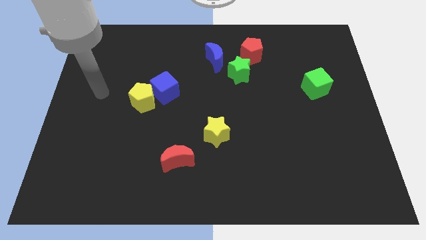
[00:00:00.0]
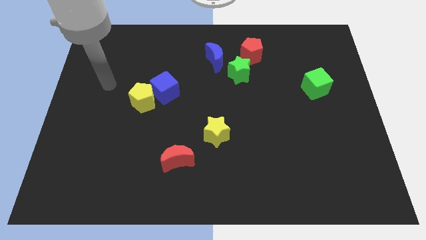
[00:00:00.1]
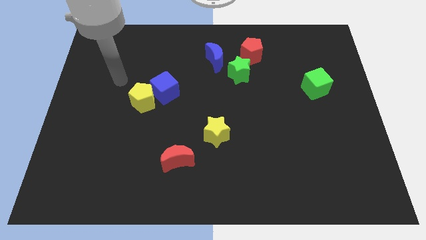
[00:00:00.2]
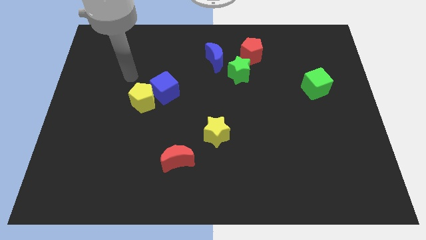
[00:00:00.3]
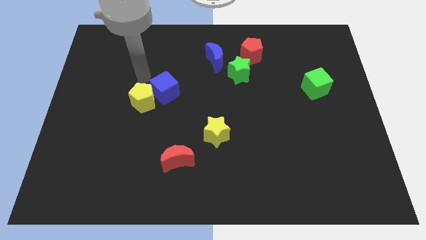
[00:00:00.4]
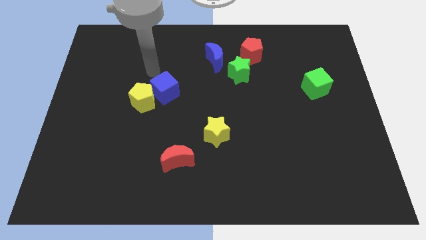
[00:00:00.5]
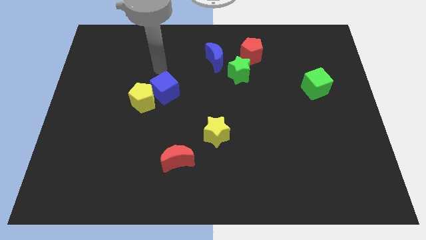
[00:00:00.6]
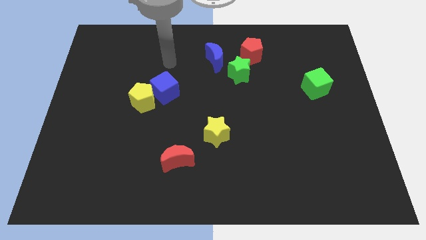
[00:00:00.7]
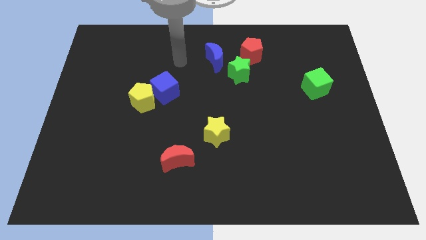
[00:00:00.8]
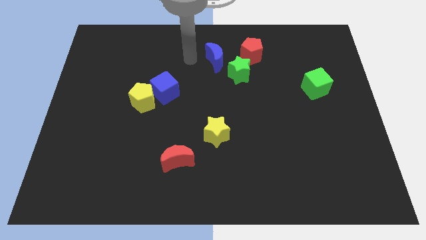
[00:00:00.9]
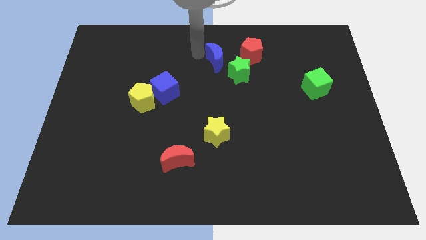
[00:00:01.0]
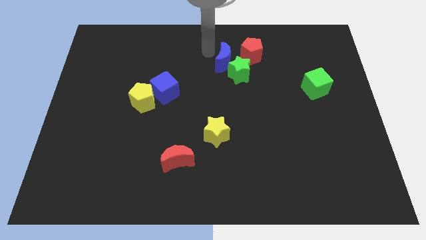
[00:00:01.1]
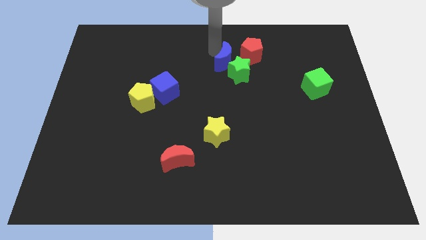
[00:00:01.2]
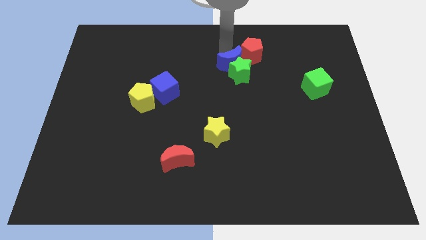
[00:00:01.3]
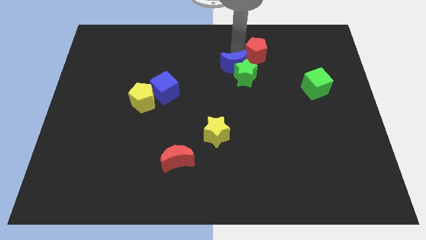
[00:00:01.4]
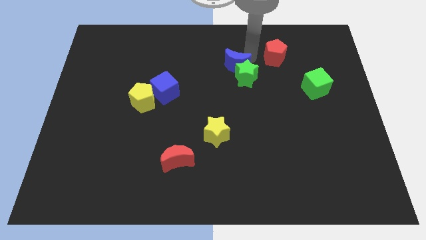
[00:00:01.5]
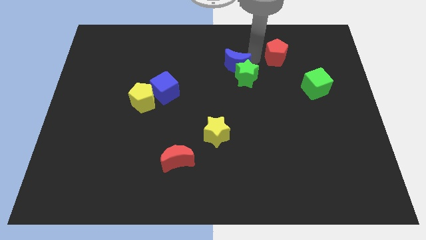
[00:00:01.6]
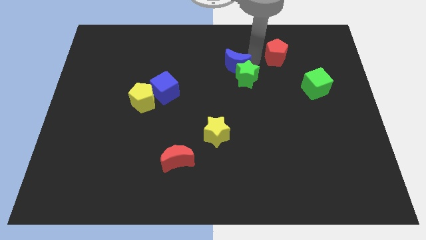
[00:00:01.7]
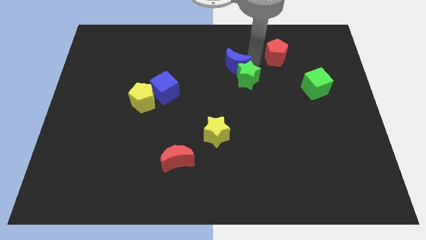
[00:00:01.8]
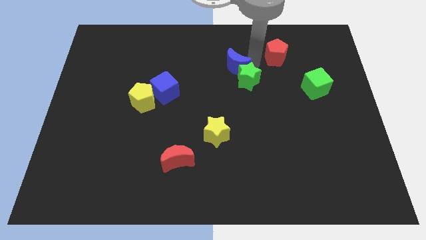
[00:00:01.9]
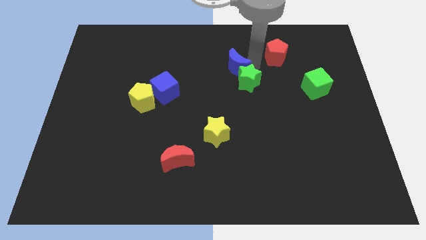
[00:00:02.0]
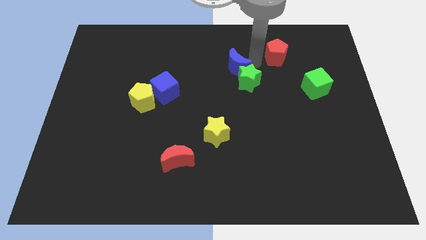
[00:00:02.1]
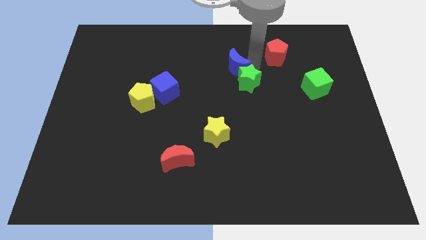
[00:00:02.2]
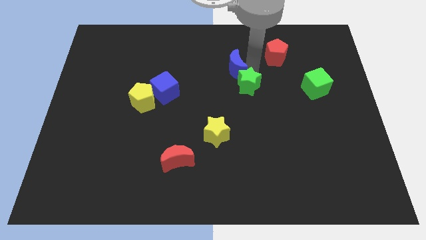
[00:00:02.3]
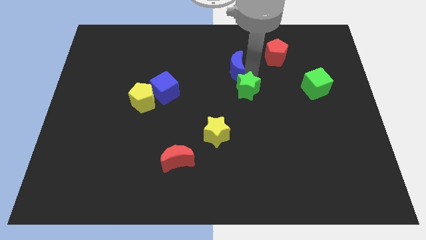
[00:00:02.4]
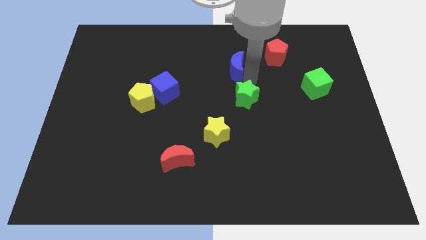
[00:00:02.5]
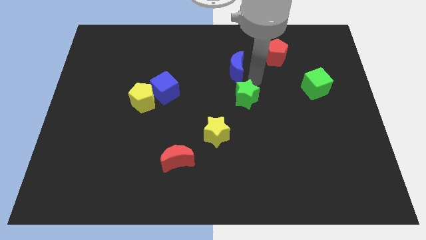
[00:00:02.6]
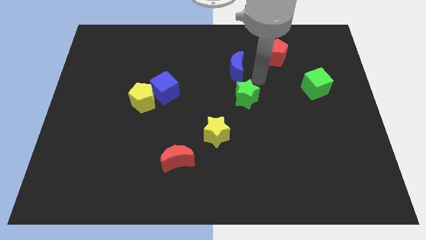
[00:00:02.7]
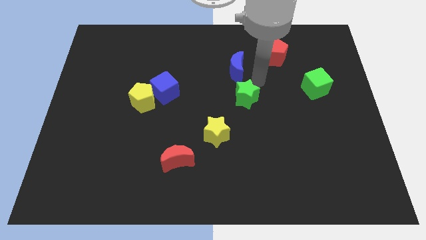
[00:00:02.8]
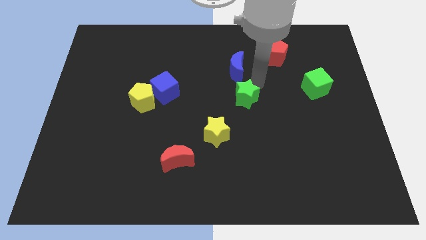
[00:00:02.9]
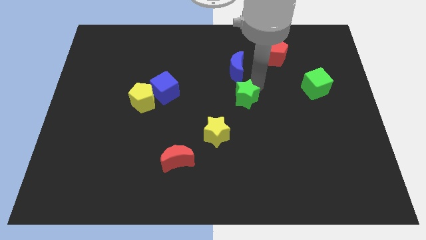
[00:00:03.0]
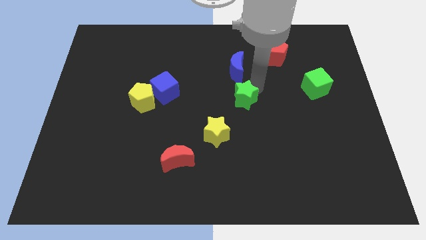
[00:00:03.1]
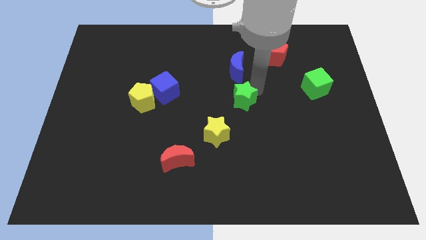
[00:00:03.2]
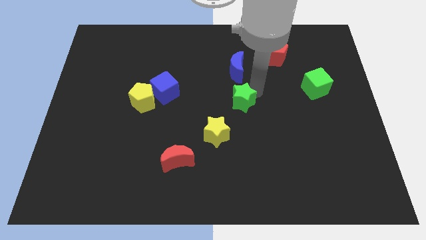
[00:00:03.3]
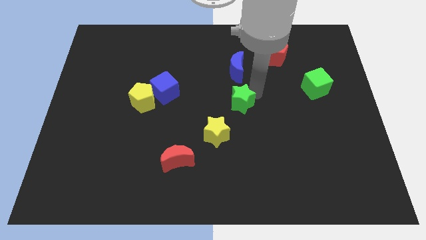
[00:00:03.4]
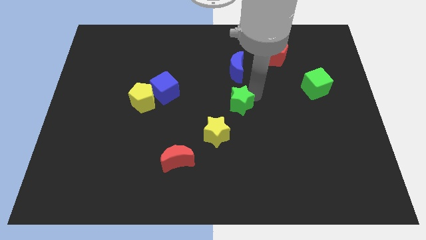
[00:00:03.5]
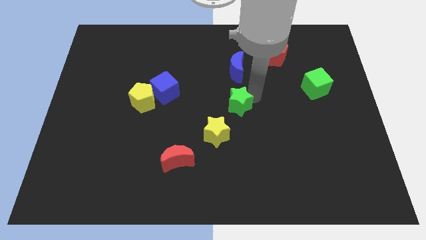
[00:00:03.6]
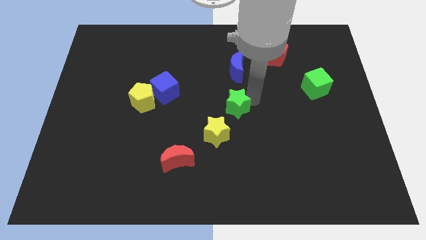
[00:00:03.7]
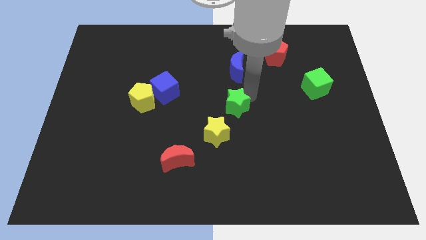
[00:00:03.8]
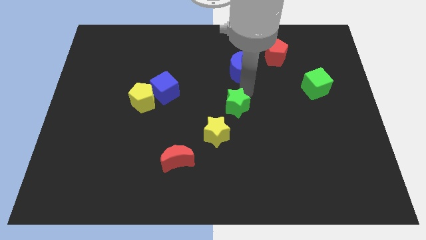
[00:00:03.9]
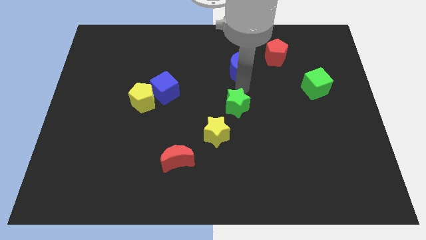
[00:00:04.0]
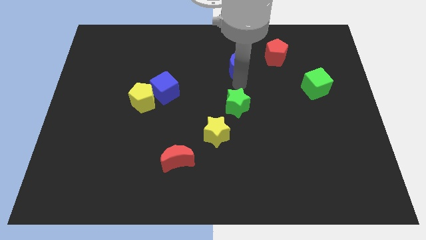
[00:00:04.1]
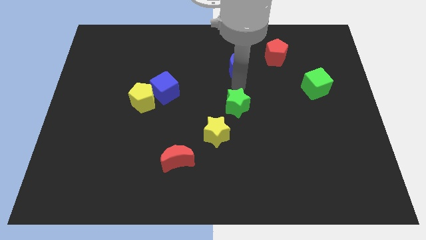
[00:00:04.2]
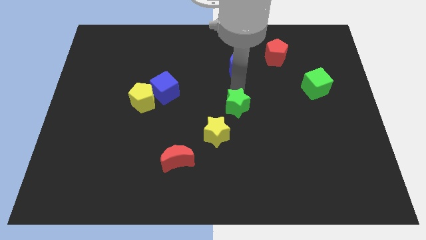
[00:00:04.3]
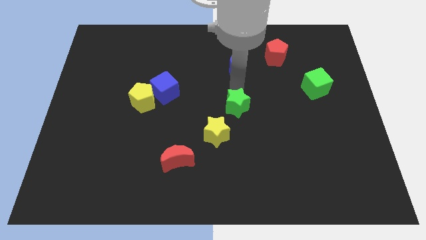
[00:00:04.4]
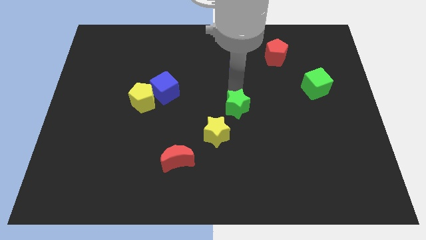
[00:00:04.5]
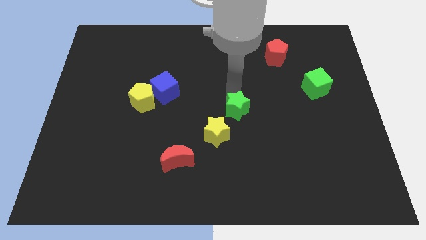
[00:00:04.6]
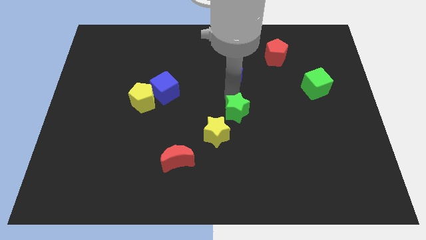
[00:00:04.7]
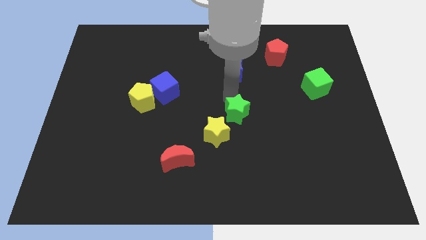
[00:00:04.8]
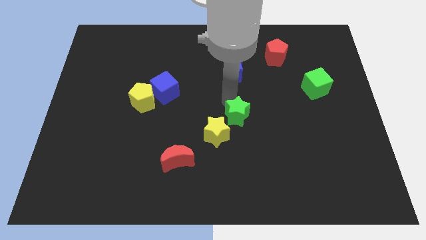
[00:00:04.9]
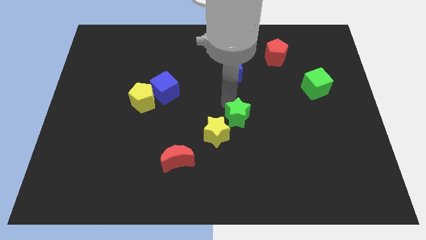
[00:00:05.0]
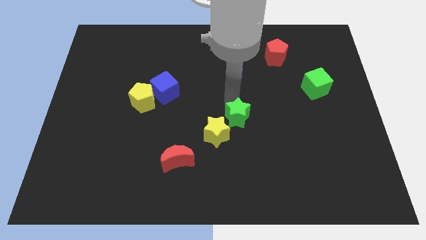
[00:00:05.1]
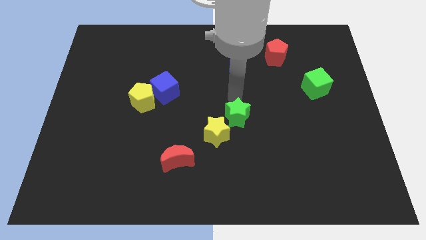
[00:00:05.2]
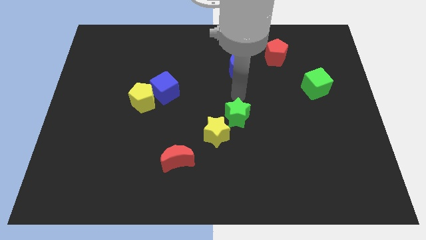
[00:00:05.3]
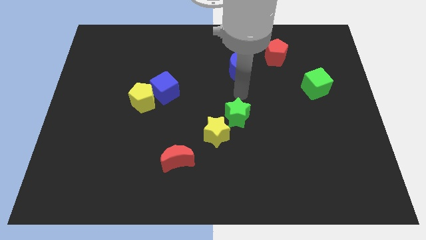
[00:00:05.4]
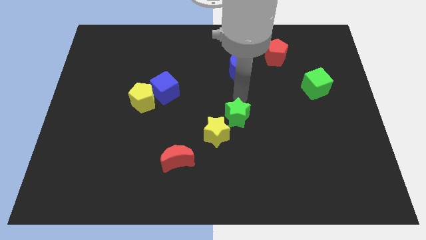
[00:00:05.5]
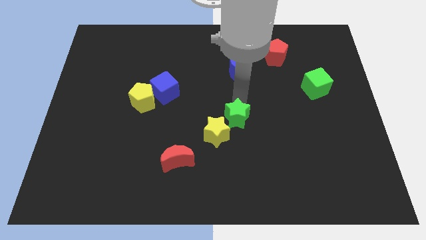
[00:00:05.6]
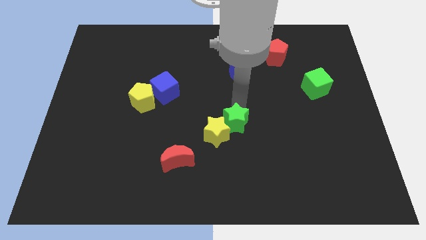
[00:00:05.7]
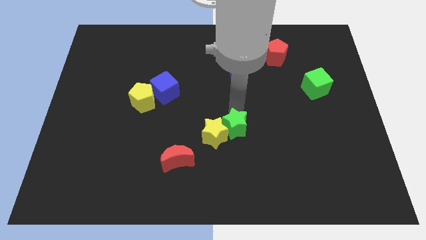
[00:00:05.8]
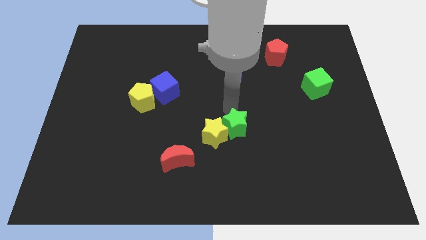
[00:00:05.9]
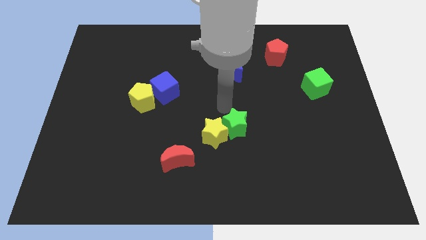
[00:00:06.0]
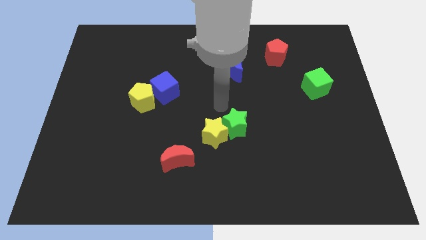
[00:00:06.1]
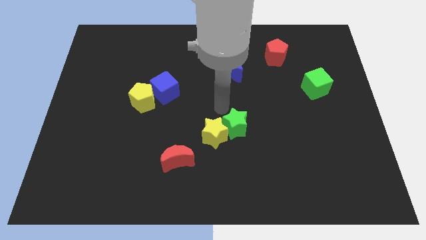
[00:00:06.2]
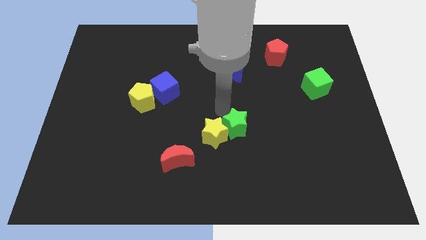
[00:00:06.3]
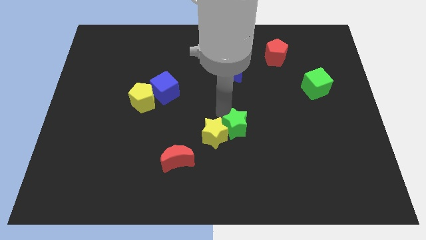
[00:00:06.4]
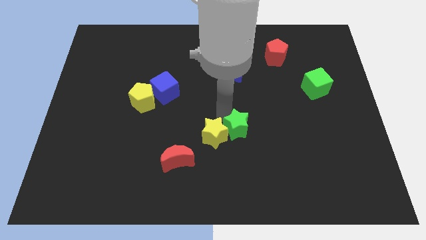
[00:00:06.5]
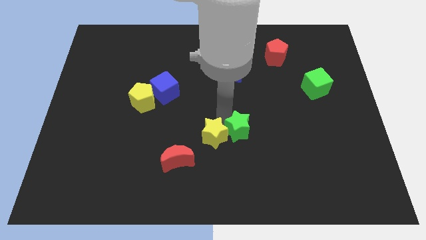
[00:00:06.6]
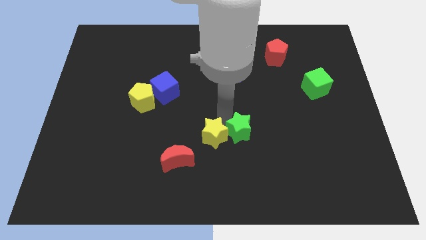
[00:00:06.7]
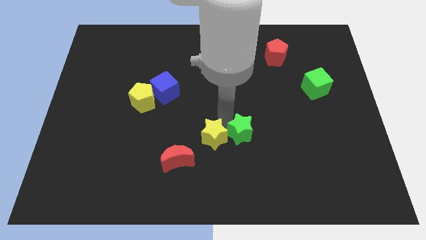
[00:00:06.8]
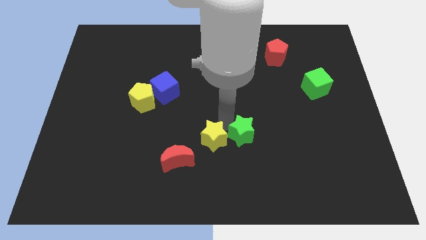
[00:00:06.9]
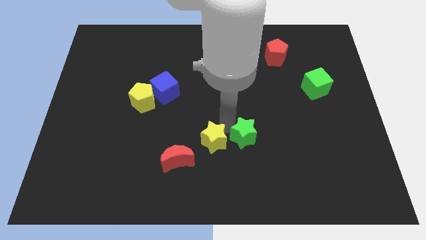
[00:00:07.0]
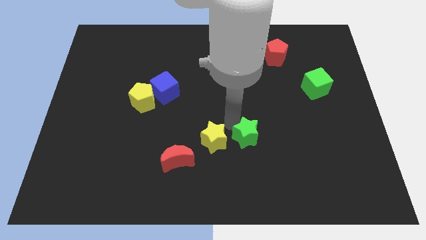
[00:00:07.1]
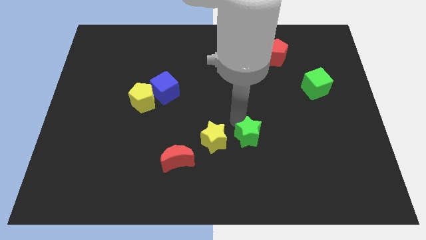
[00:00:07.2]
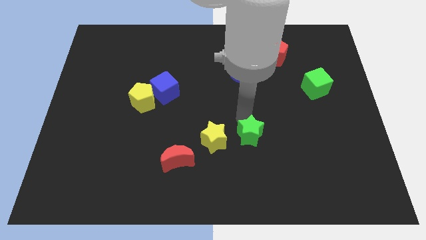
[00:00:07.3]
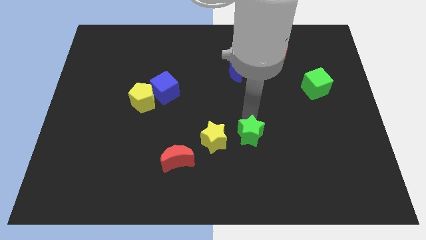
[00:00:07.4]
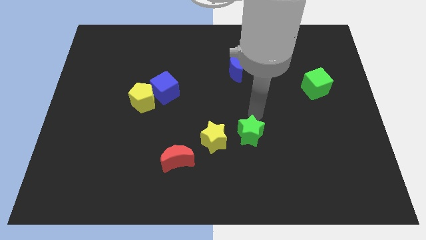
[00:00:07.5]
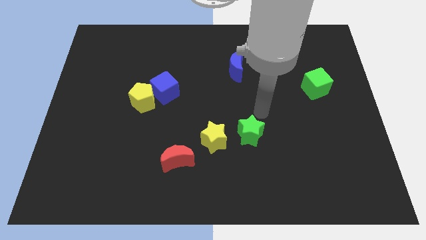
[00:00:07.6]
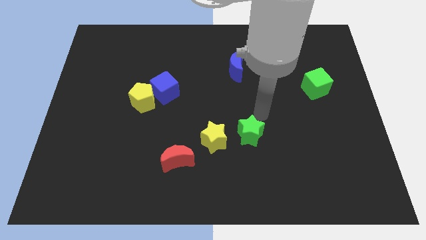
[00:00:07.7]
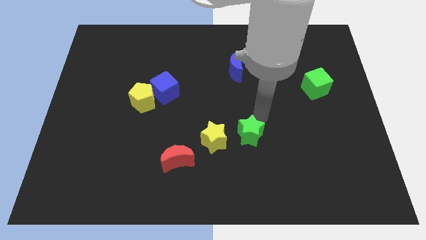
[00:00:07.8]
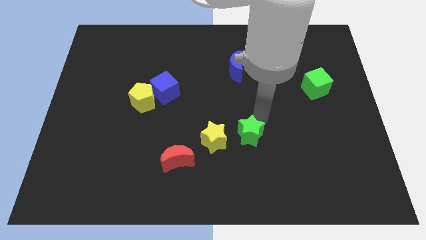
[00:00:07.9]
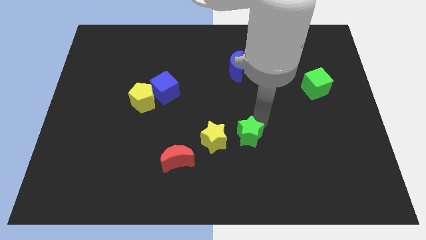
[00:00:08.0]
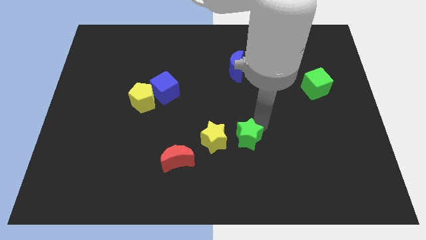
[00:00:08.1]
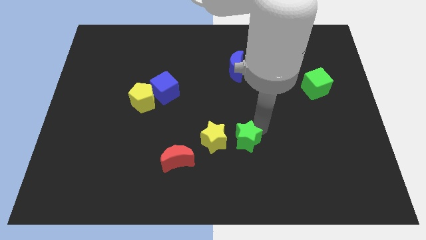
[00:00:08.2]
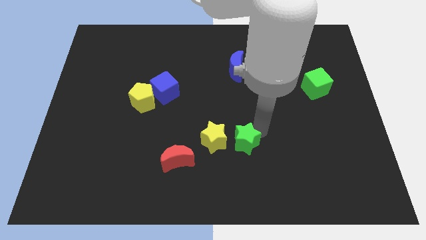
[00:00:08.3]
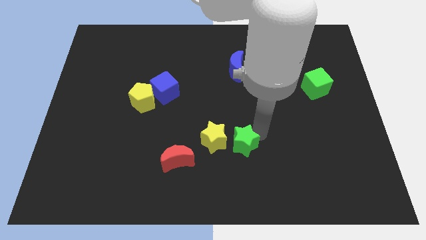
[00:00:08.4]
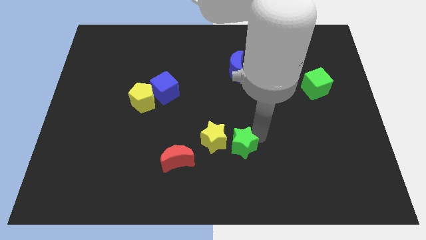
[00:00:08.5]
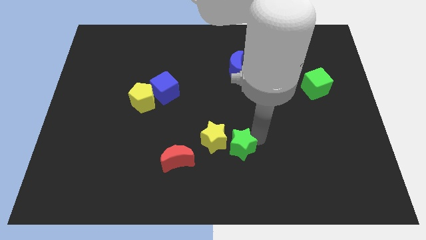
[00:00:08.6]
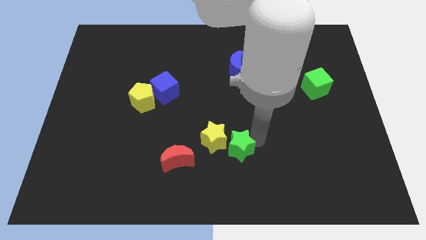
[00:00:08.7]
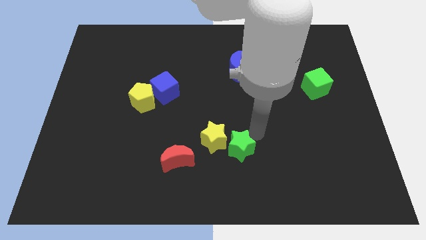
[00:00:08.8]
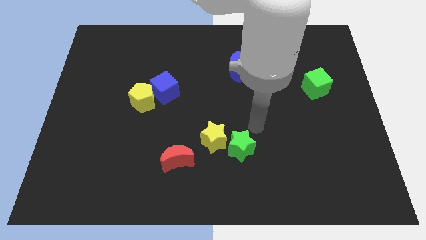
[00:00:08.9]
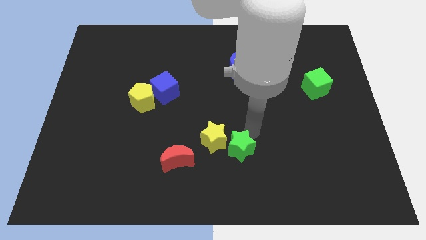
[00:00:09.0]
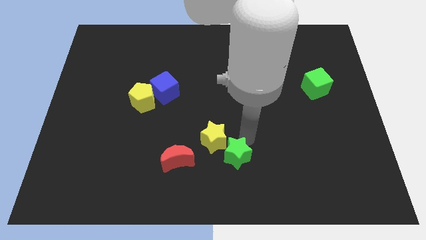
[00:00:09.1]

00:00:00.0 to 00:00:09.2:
put the green star below the yellow star
